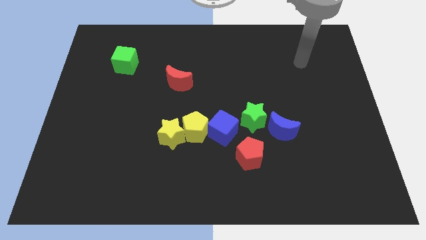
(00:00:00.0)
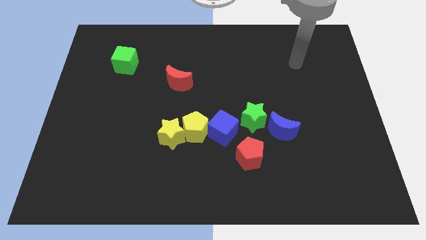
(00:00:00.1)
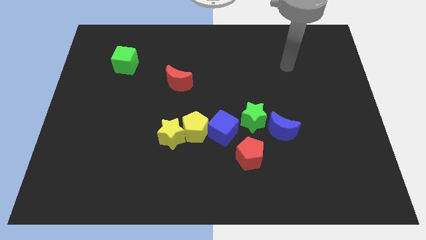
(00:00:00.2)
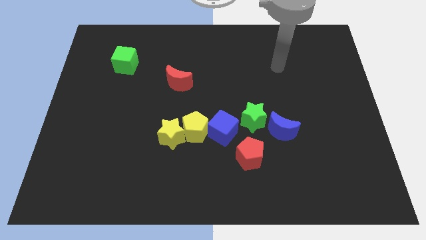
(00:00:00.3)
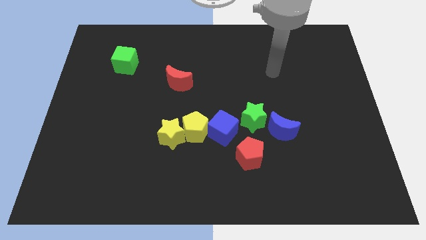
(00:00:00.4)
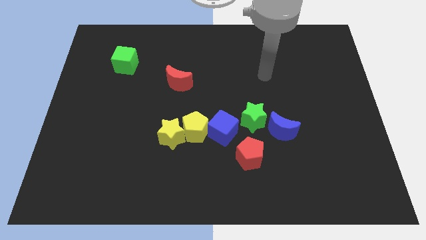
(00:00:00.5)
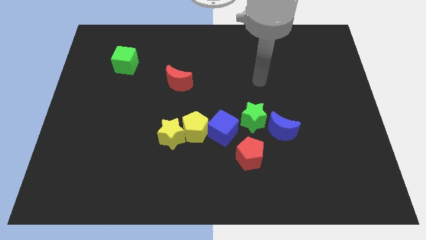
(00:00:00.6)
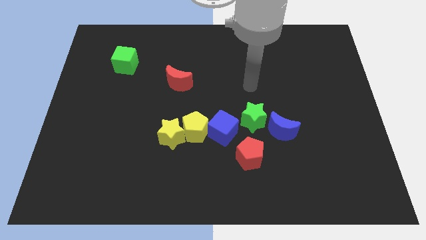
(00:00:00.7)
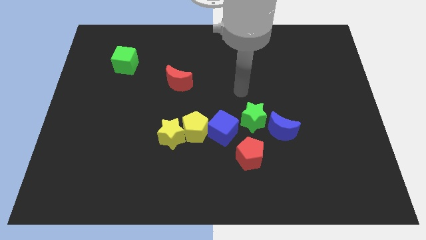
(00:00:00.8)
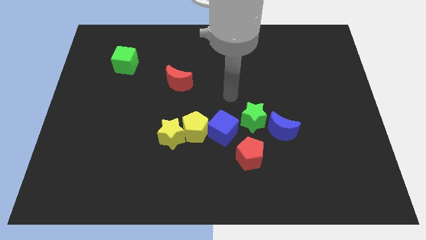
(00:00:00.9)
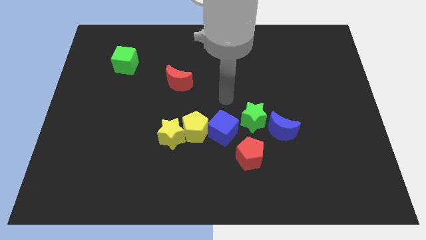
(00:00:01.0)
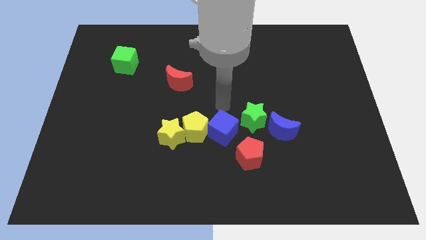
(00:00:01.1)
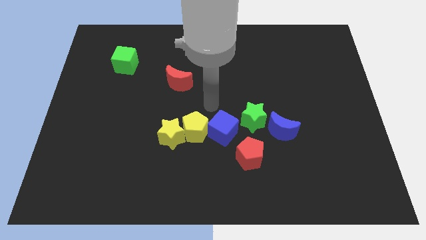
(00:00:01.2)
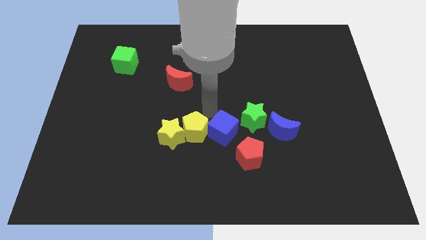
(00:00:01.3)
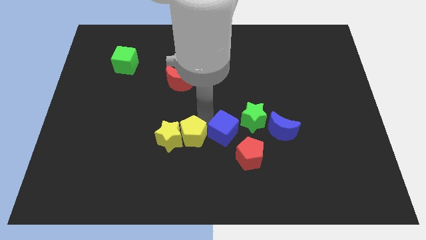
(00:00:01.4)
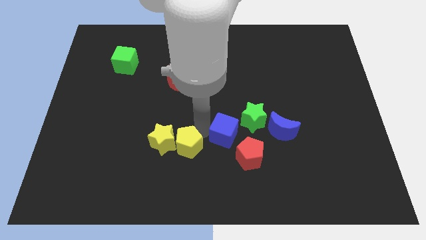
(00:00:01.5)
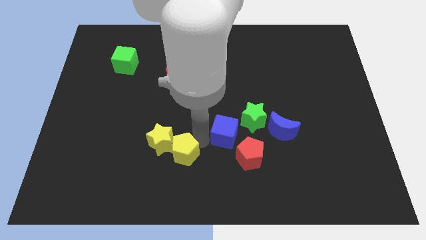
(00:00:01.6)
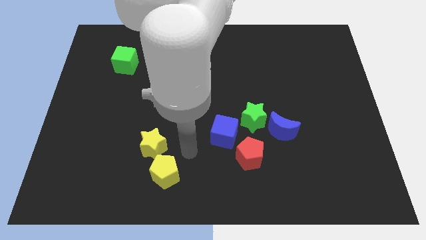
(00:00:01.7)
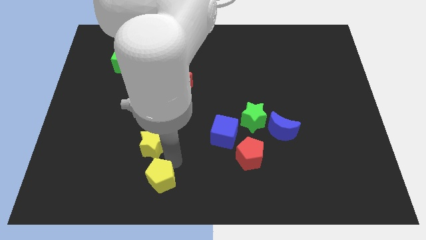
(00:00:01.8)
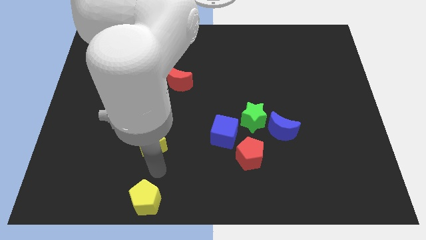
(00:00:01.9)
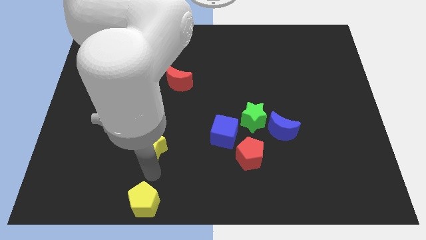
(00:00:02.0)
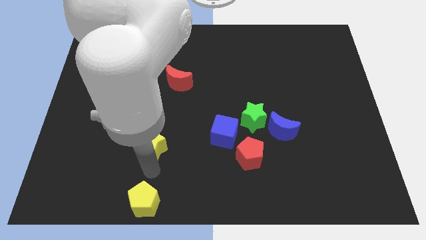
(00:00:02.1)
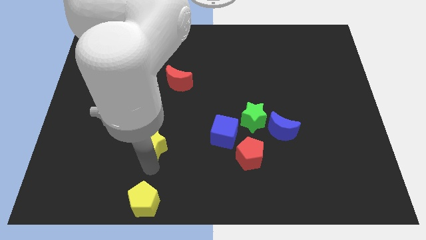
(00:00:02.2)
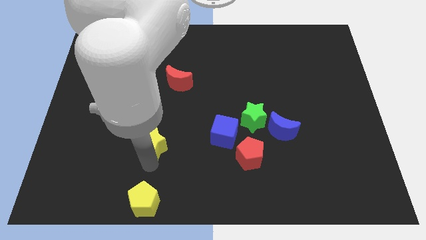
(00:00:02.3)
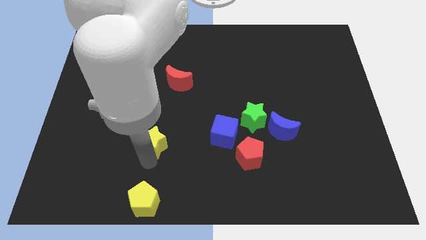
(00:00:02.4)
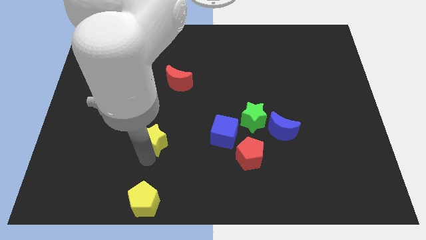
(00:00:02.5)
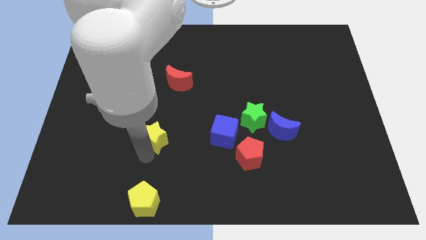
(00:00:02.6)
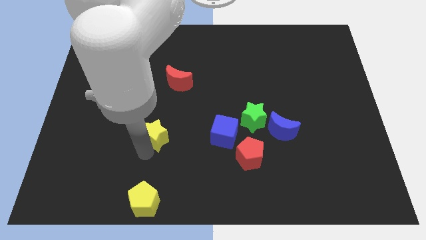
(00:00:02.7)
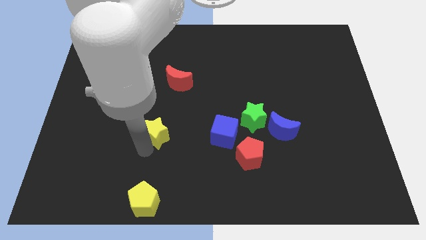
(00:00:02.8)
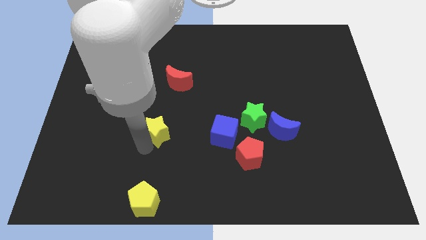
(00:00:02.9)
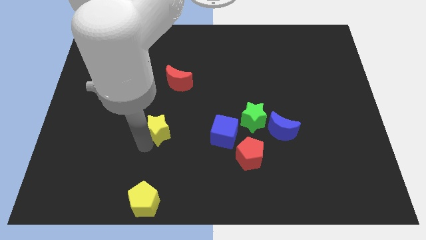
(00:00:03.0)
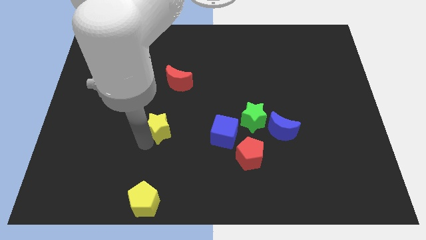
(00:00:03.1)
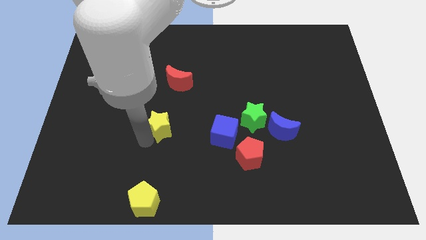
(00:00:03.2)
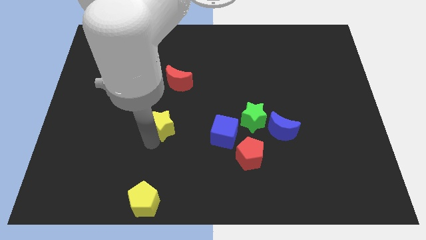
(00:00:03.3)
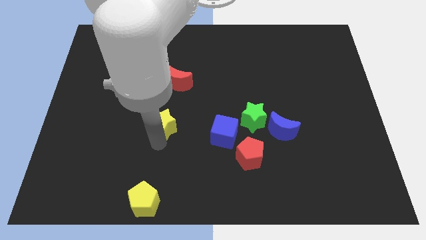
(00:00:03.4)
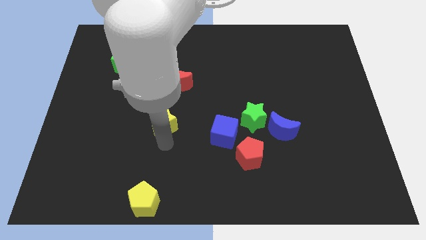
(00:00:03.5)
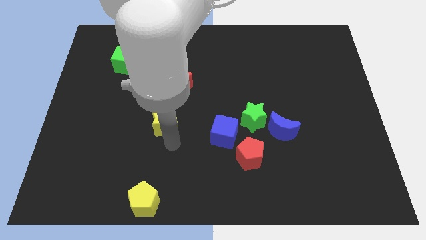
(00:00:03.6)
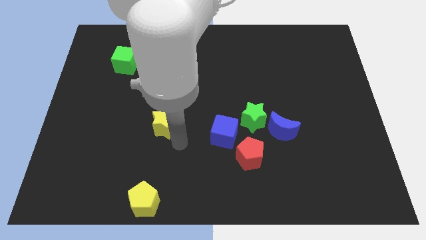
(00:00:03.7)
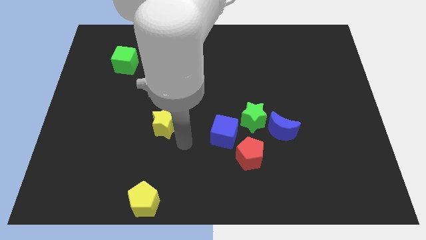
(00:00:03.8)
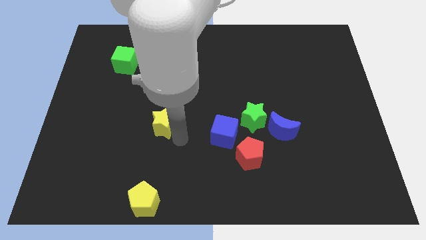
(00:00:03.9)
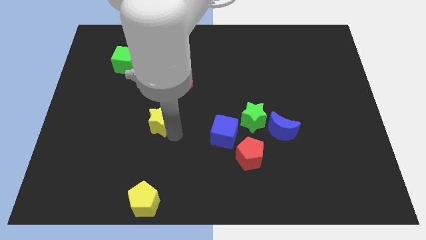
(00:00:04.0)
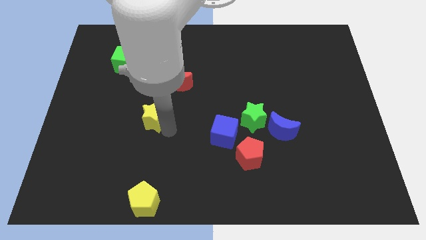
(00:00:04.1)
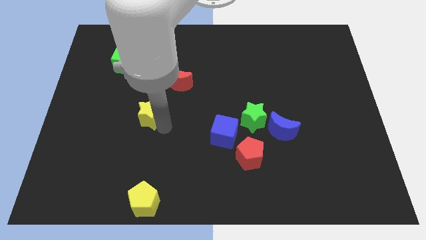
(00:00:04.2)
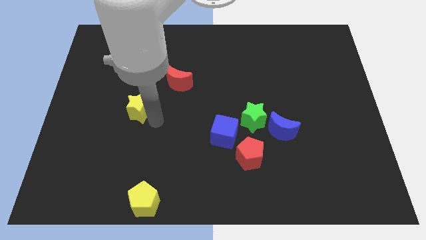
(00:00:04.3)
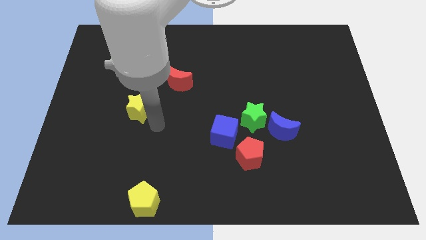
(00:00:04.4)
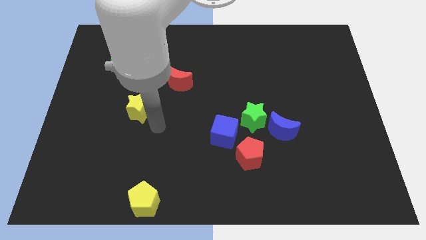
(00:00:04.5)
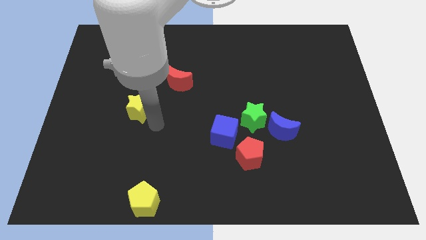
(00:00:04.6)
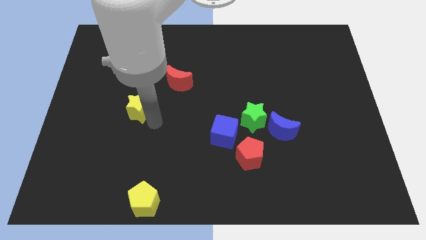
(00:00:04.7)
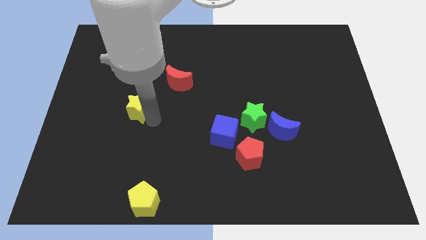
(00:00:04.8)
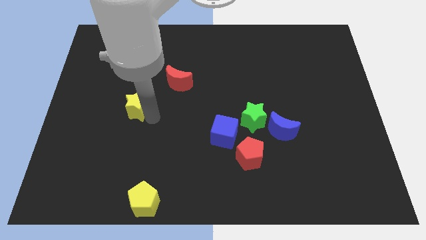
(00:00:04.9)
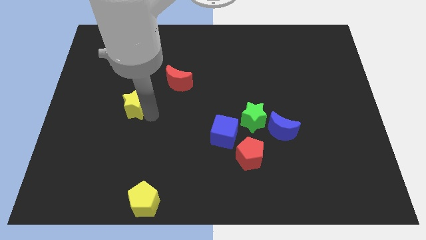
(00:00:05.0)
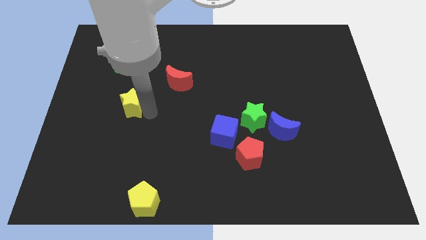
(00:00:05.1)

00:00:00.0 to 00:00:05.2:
slide the yellow star to the bottom side of the green cube

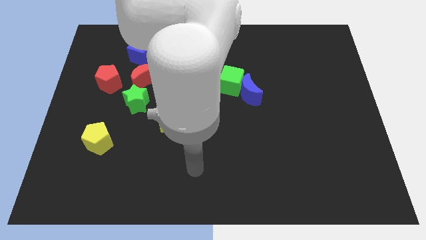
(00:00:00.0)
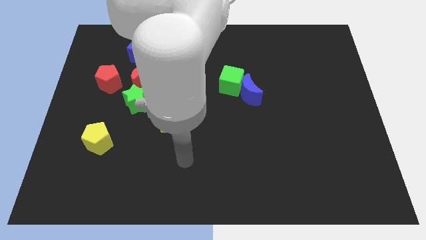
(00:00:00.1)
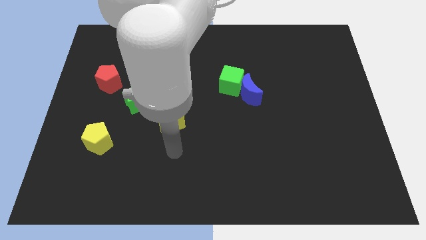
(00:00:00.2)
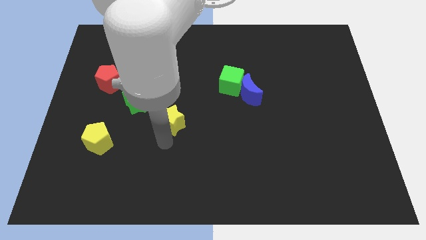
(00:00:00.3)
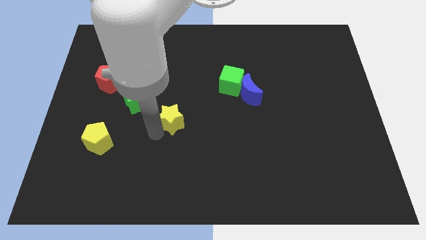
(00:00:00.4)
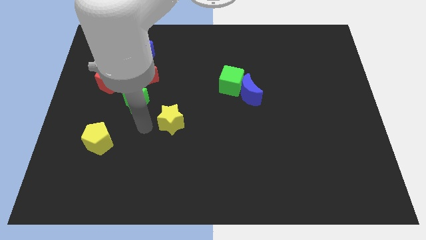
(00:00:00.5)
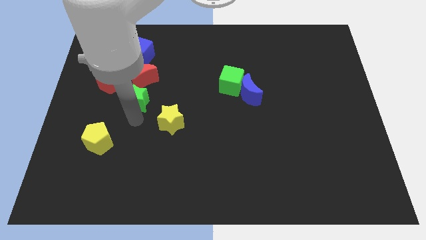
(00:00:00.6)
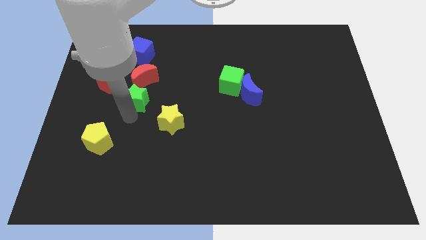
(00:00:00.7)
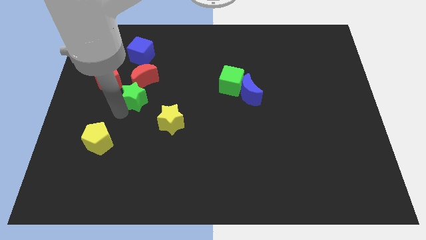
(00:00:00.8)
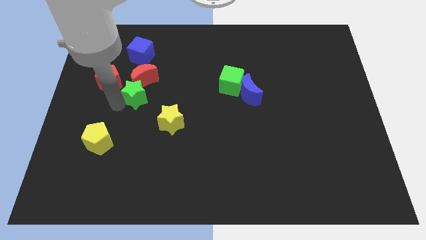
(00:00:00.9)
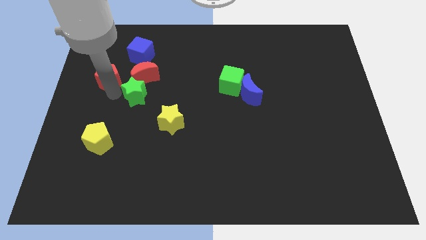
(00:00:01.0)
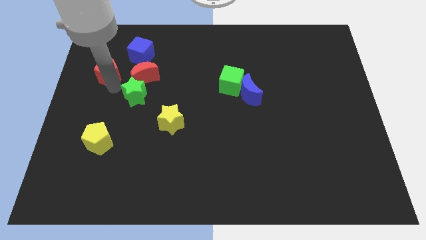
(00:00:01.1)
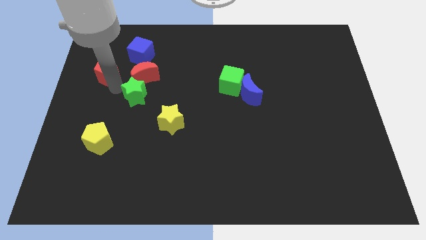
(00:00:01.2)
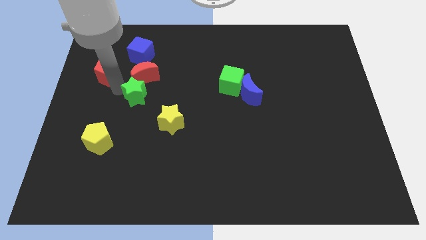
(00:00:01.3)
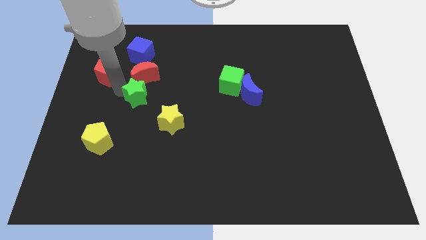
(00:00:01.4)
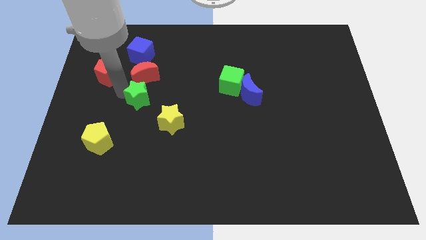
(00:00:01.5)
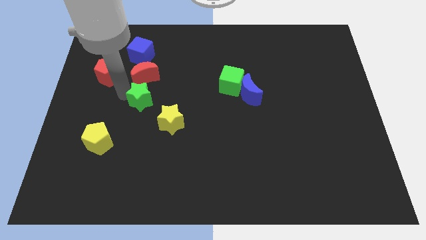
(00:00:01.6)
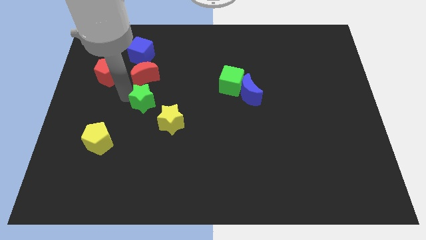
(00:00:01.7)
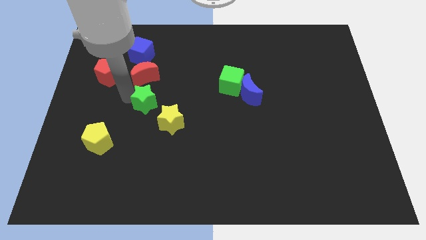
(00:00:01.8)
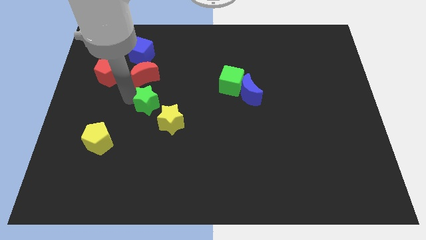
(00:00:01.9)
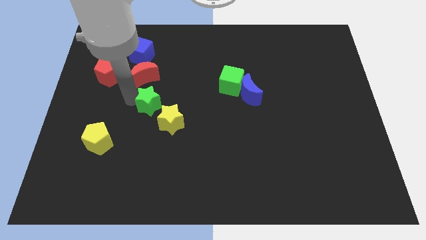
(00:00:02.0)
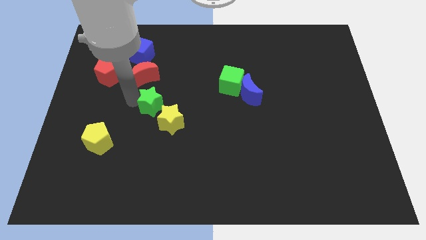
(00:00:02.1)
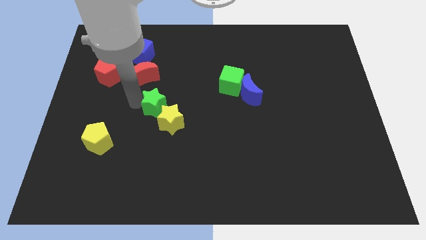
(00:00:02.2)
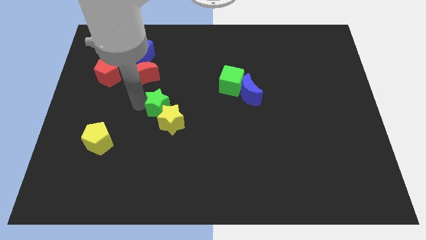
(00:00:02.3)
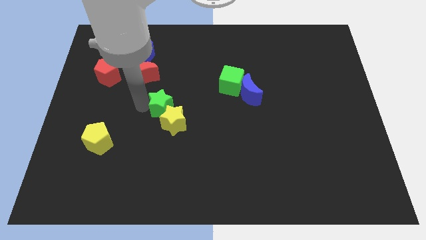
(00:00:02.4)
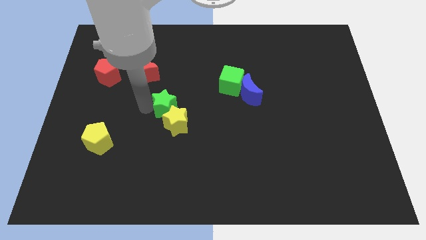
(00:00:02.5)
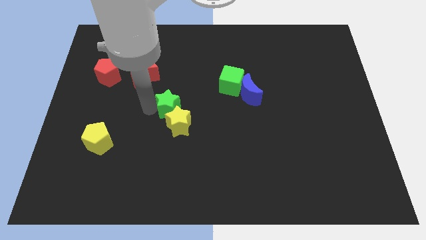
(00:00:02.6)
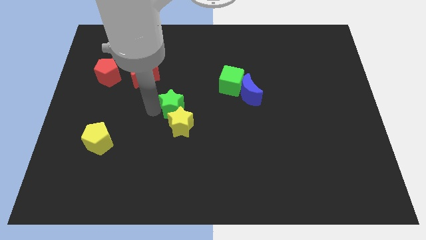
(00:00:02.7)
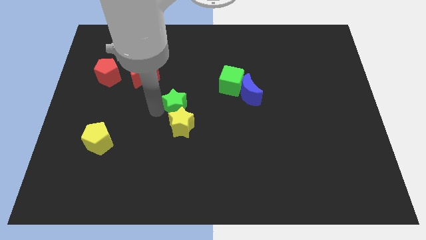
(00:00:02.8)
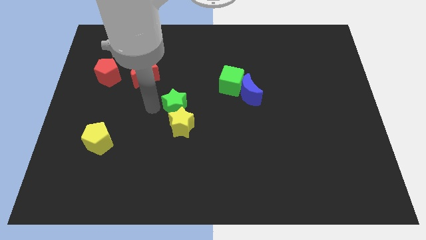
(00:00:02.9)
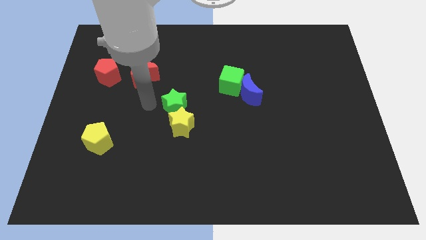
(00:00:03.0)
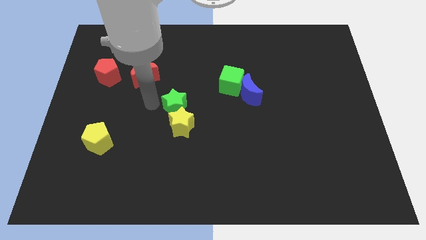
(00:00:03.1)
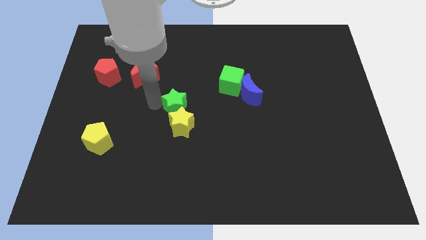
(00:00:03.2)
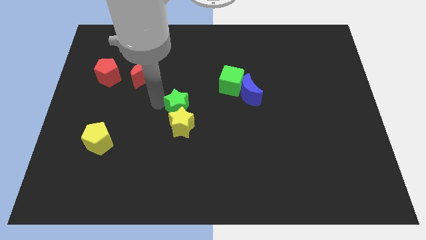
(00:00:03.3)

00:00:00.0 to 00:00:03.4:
push the green star diagonally up and to the right of the yellow star

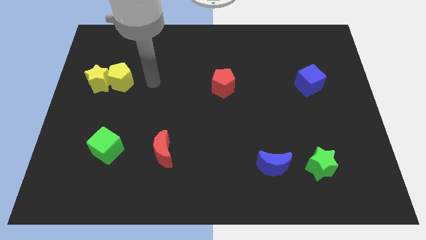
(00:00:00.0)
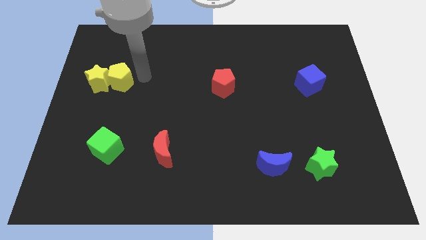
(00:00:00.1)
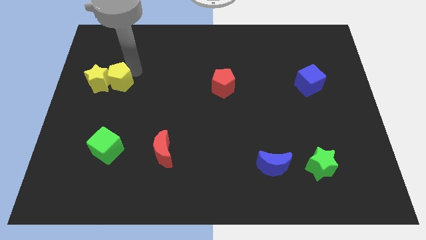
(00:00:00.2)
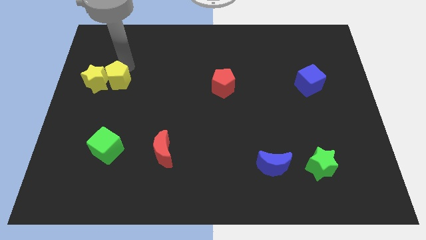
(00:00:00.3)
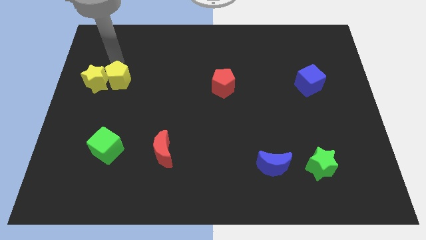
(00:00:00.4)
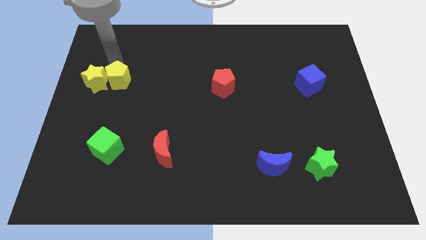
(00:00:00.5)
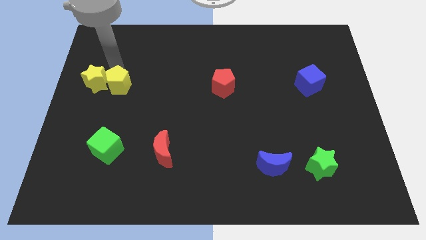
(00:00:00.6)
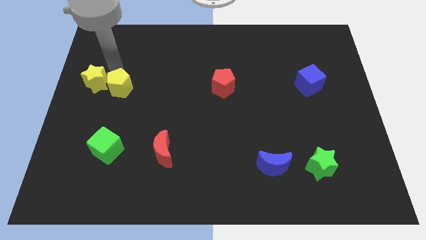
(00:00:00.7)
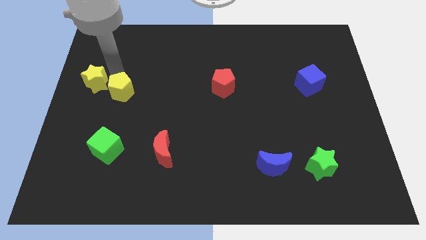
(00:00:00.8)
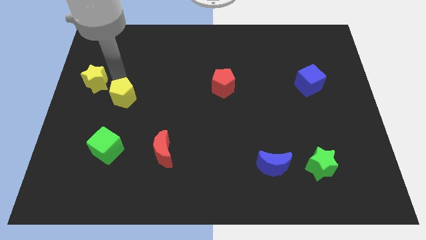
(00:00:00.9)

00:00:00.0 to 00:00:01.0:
put the yellow pentagon to the top of the green cube
